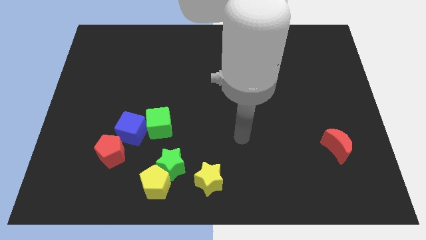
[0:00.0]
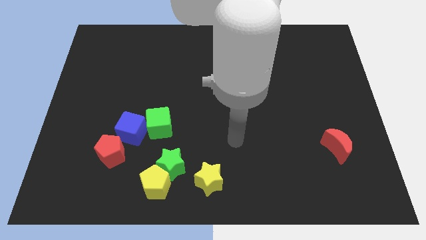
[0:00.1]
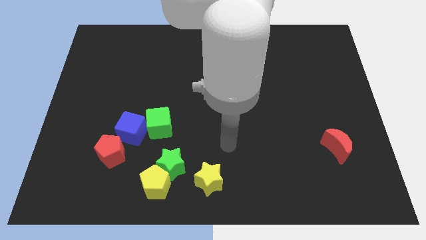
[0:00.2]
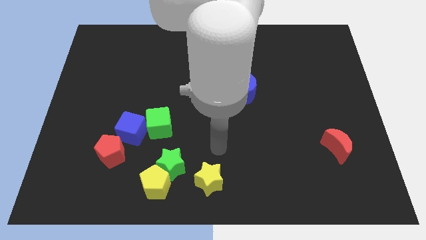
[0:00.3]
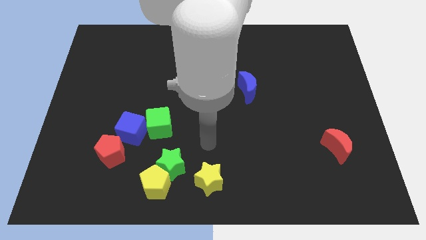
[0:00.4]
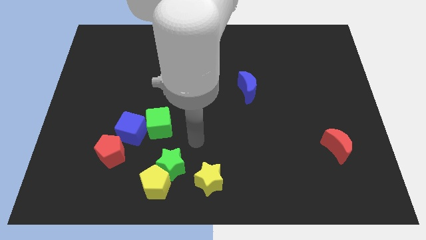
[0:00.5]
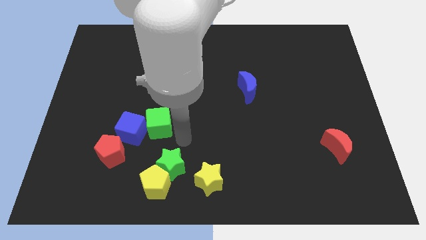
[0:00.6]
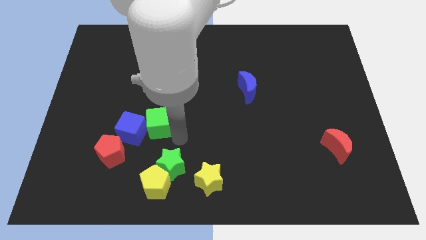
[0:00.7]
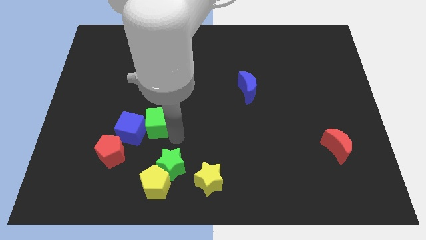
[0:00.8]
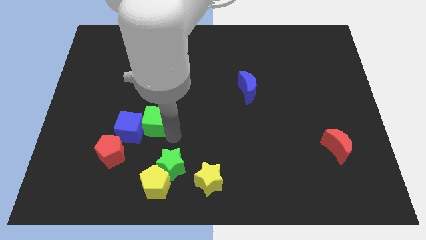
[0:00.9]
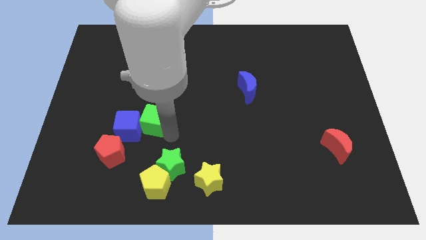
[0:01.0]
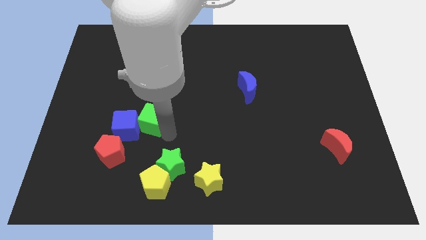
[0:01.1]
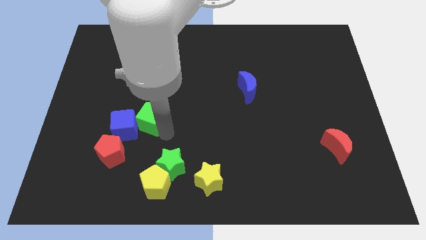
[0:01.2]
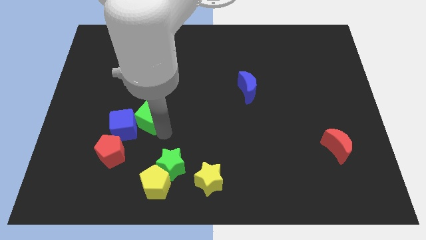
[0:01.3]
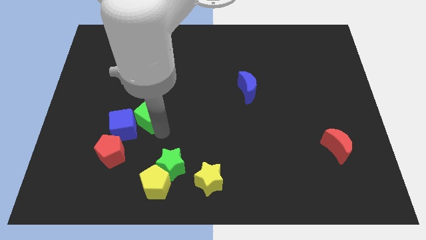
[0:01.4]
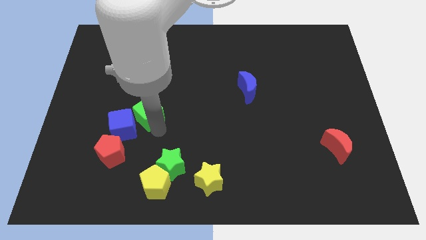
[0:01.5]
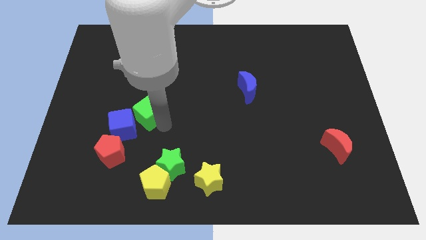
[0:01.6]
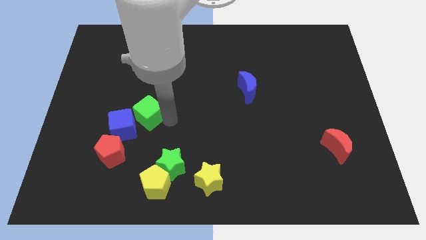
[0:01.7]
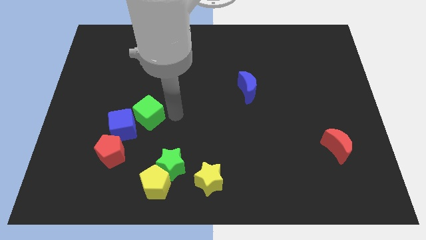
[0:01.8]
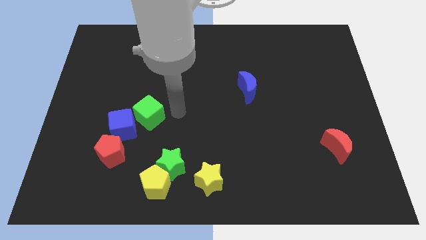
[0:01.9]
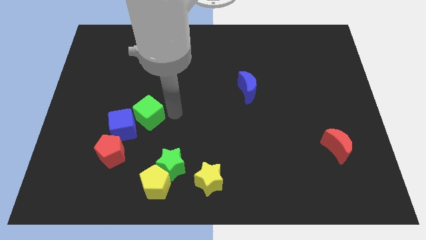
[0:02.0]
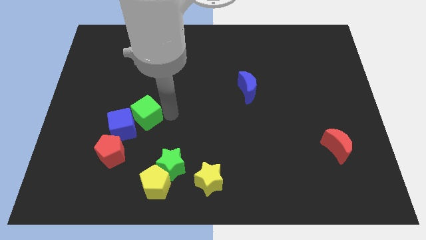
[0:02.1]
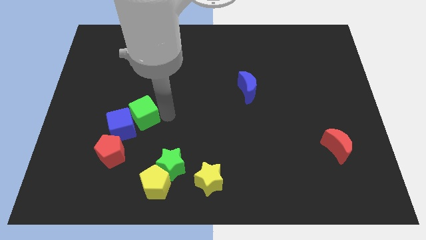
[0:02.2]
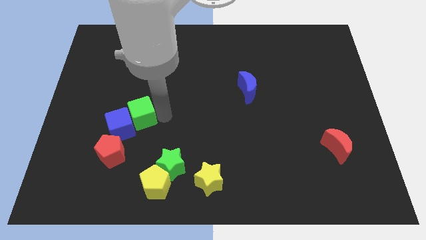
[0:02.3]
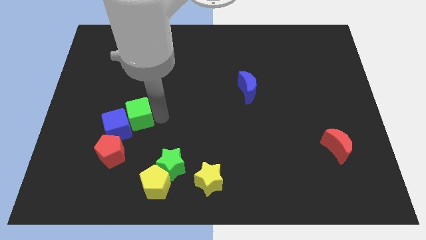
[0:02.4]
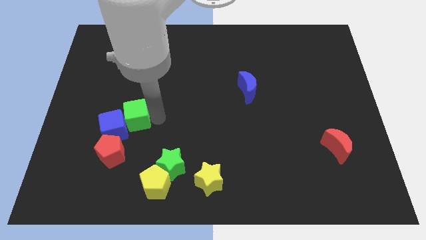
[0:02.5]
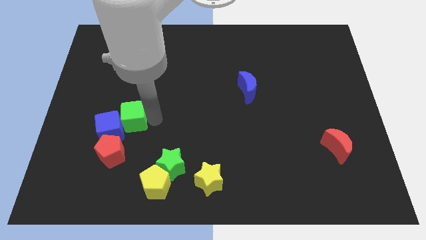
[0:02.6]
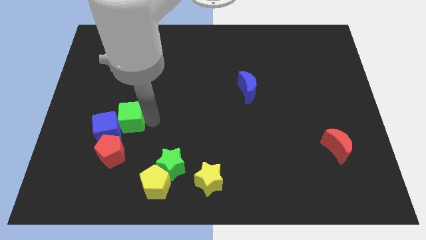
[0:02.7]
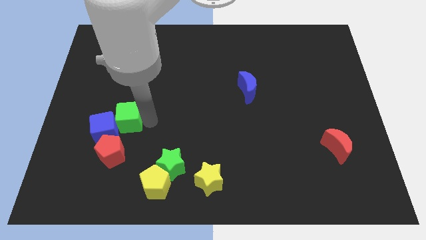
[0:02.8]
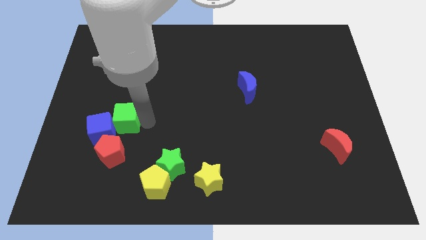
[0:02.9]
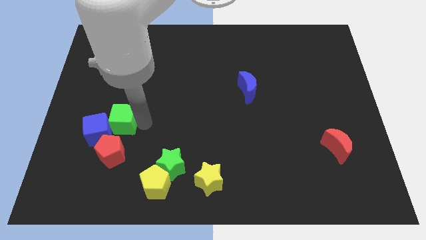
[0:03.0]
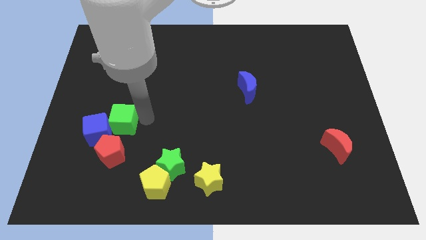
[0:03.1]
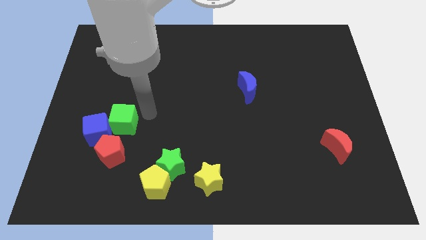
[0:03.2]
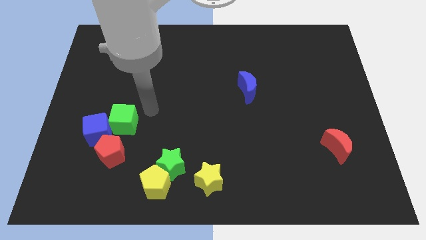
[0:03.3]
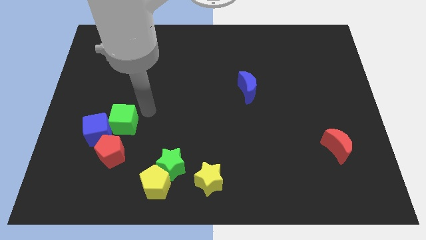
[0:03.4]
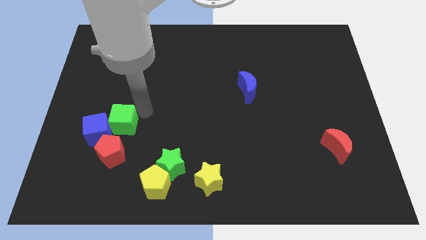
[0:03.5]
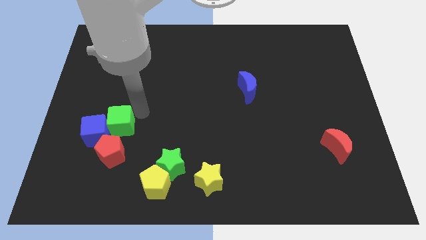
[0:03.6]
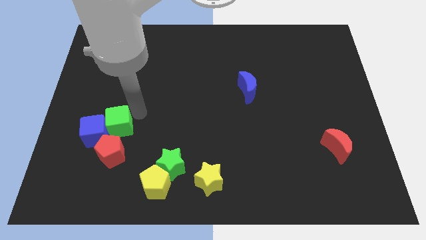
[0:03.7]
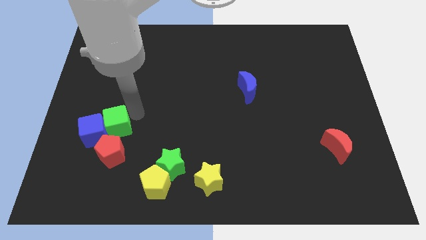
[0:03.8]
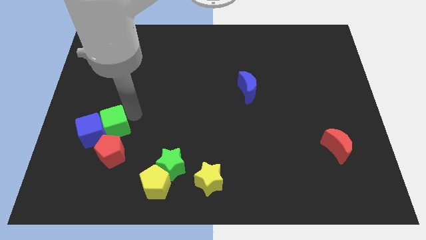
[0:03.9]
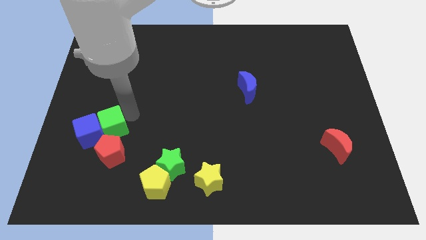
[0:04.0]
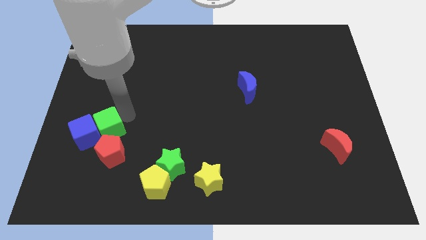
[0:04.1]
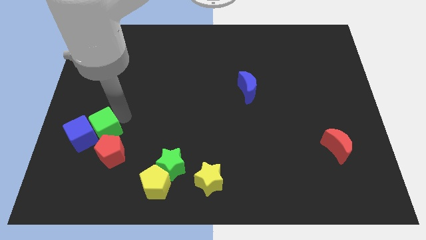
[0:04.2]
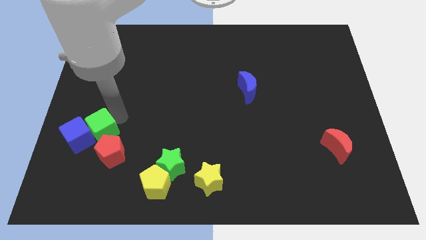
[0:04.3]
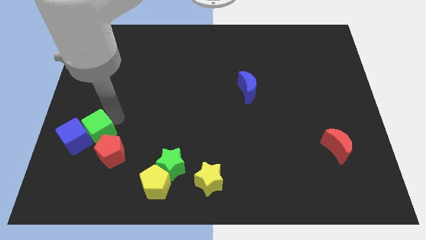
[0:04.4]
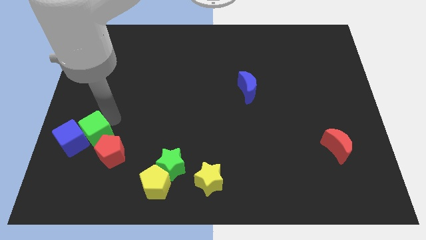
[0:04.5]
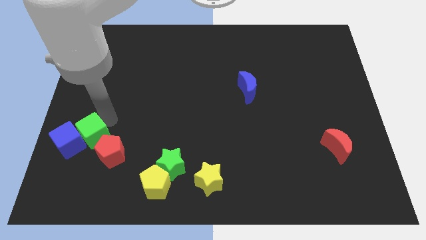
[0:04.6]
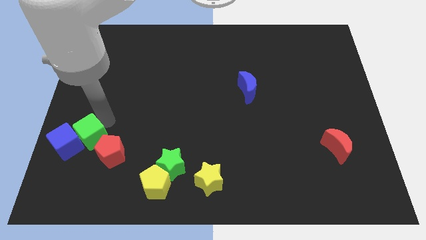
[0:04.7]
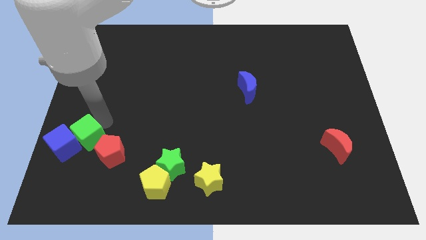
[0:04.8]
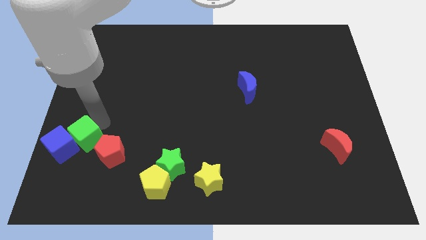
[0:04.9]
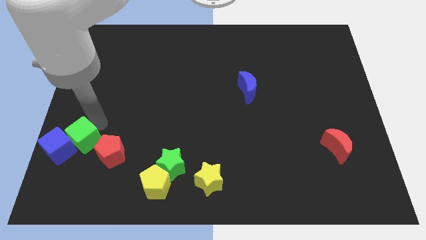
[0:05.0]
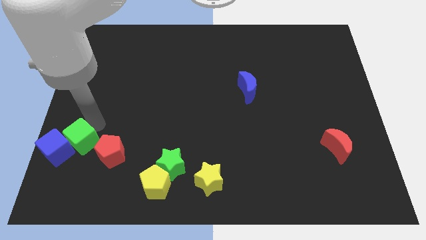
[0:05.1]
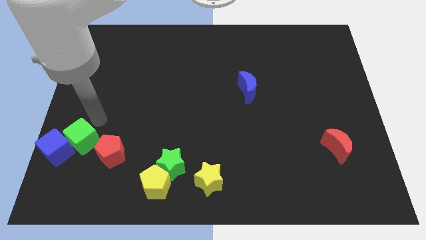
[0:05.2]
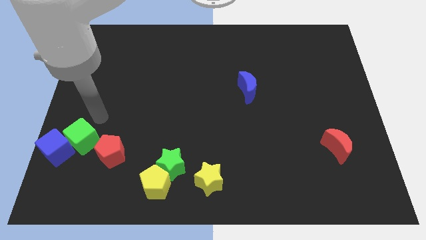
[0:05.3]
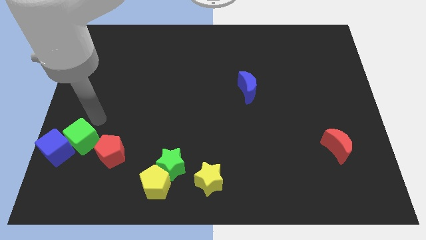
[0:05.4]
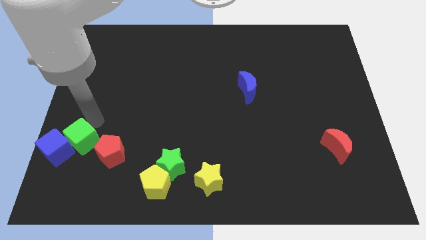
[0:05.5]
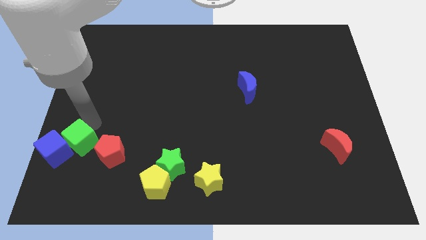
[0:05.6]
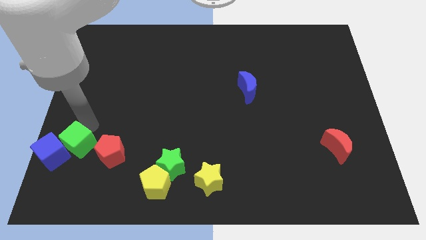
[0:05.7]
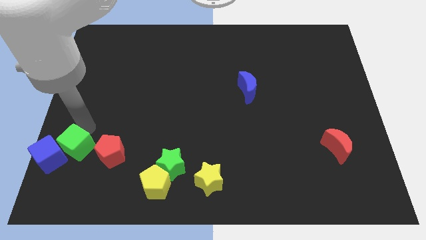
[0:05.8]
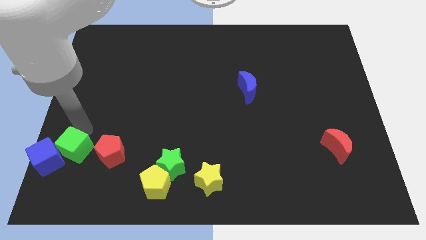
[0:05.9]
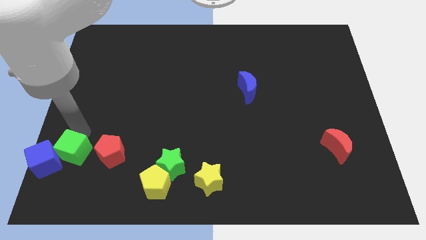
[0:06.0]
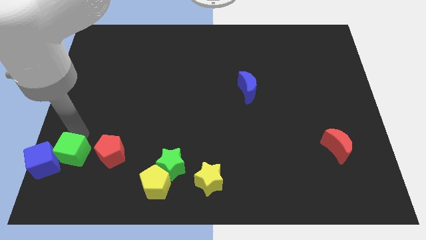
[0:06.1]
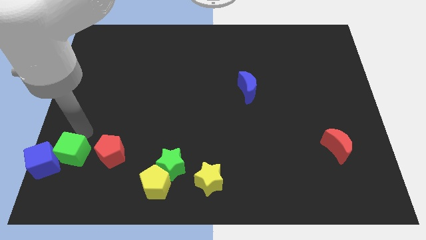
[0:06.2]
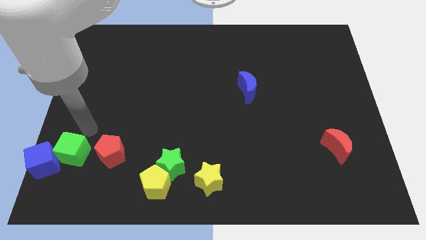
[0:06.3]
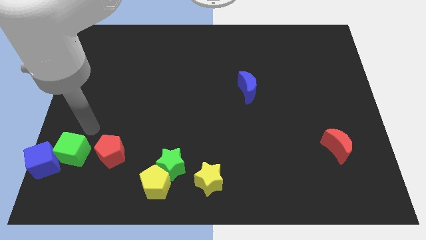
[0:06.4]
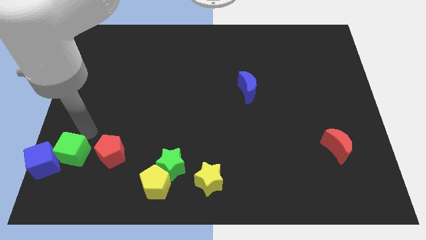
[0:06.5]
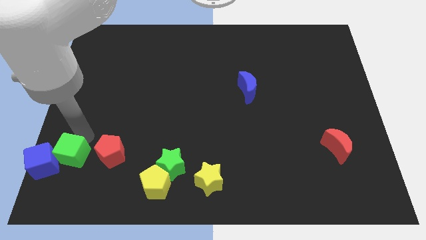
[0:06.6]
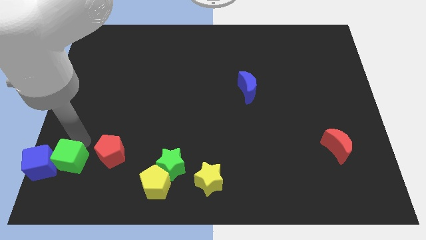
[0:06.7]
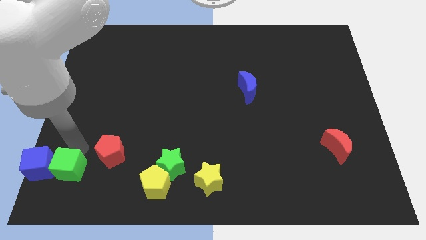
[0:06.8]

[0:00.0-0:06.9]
move the green cube to the lower left corner
